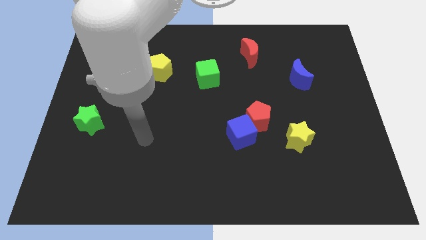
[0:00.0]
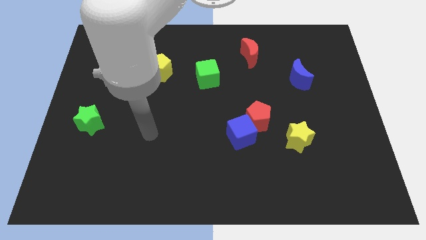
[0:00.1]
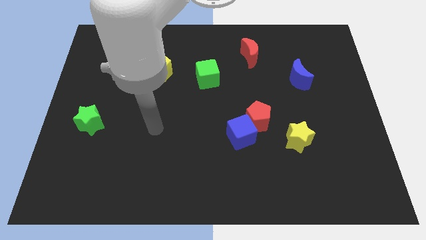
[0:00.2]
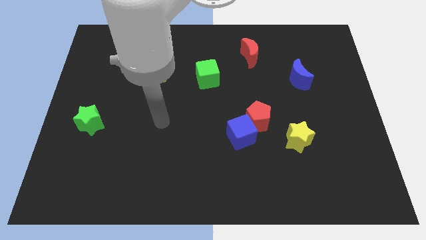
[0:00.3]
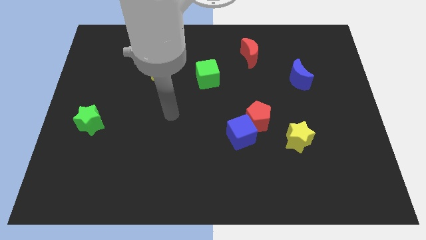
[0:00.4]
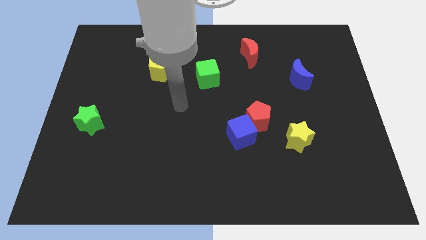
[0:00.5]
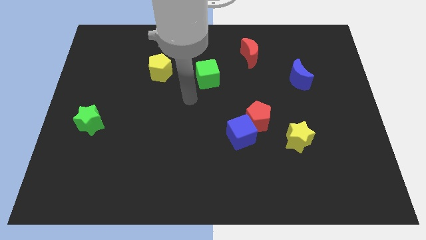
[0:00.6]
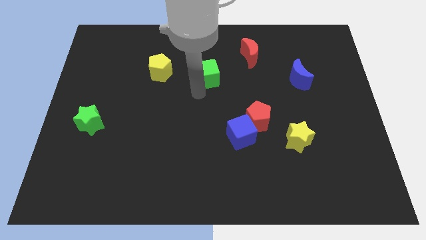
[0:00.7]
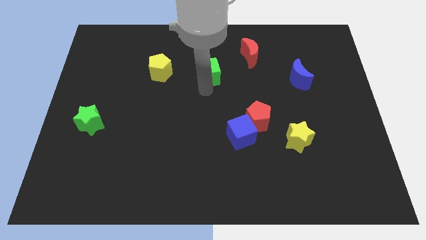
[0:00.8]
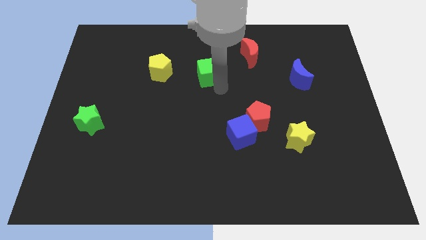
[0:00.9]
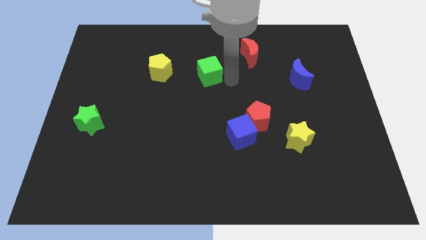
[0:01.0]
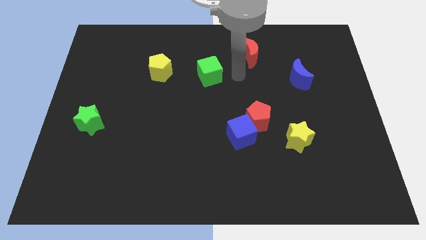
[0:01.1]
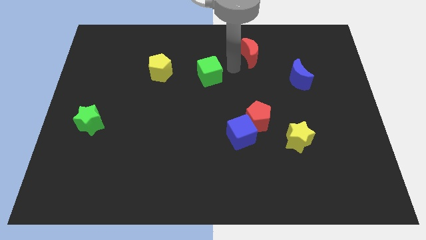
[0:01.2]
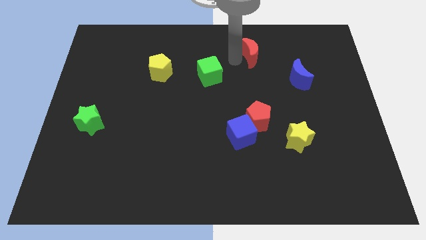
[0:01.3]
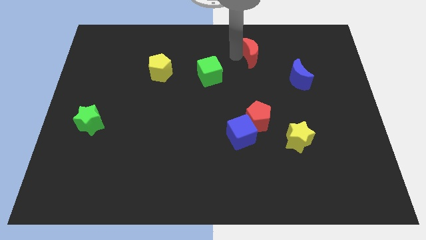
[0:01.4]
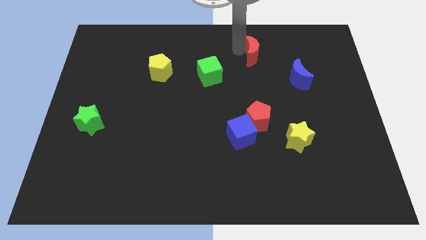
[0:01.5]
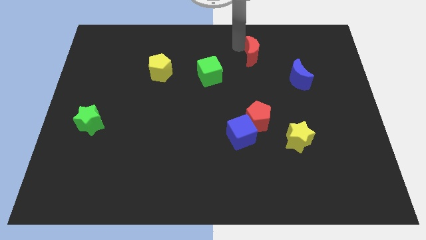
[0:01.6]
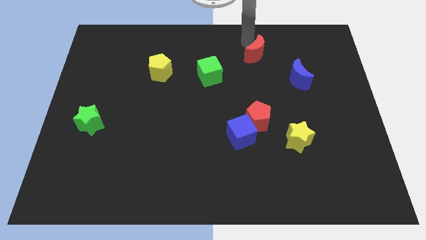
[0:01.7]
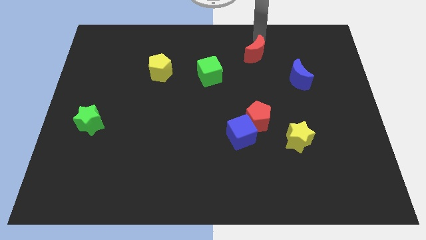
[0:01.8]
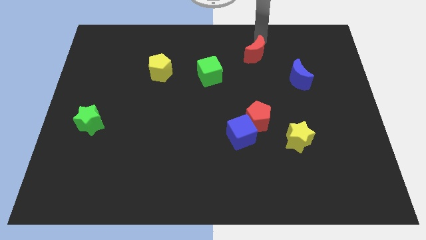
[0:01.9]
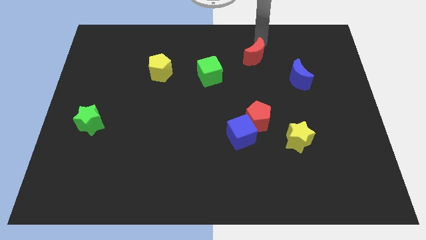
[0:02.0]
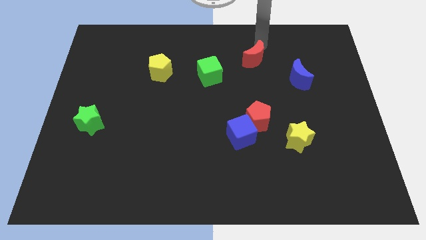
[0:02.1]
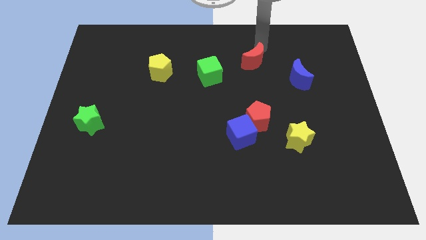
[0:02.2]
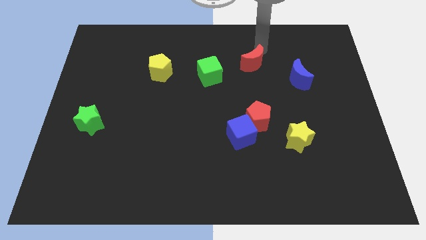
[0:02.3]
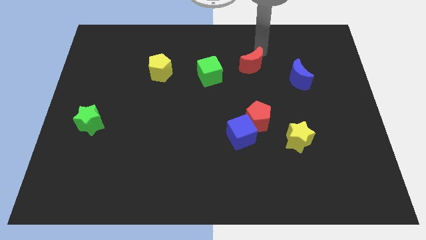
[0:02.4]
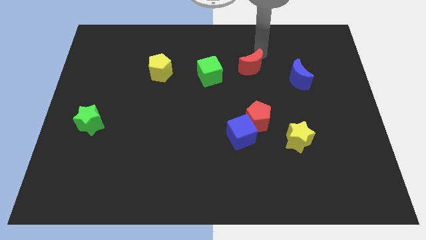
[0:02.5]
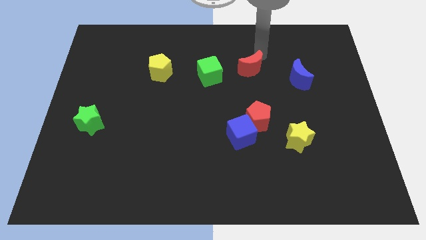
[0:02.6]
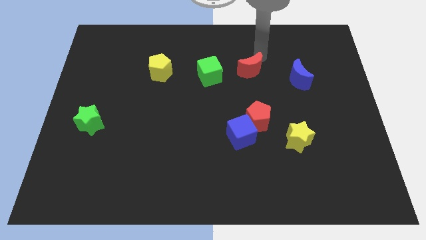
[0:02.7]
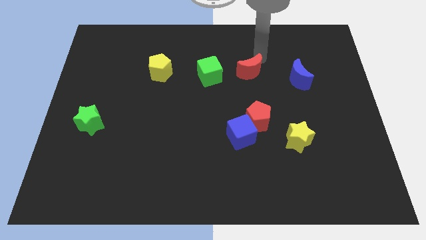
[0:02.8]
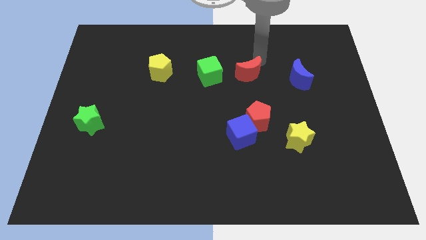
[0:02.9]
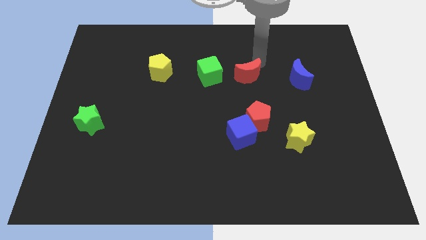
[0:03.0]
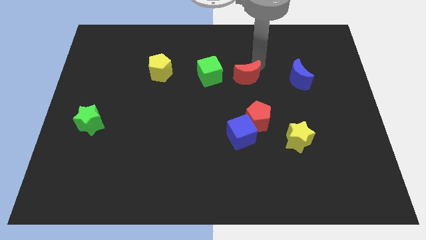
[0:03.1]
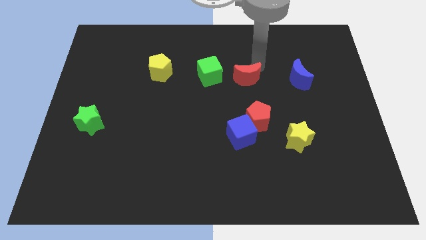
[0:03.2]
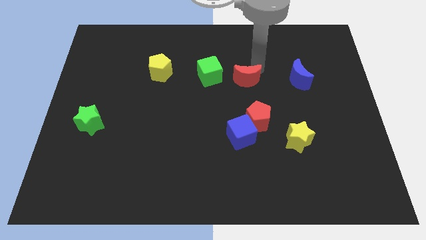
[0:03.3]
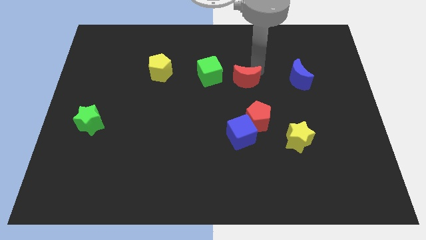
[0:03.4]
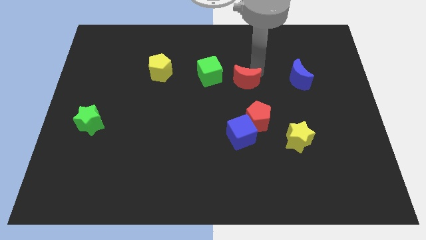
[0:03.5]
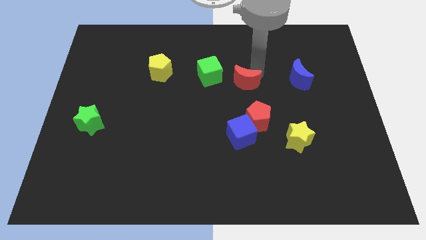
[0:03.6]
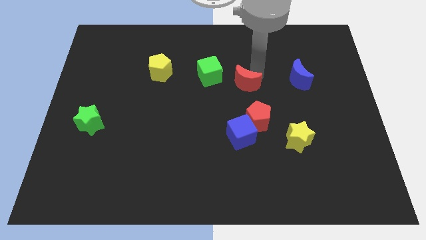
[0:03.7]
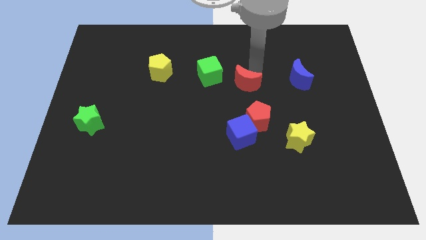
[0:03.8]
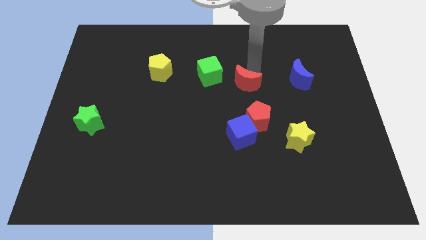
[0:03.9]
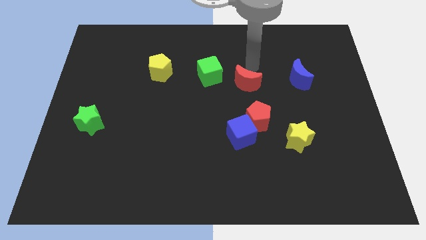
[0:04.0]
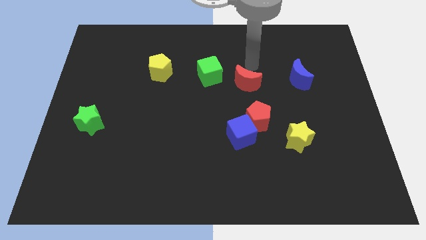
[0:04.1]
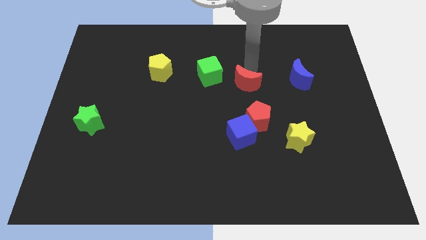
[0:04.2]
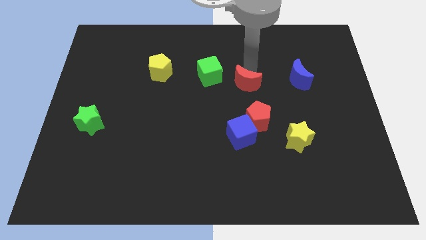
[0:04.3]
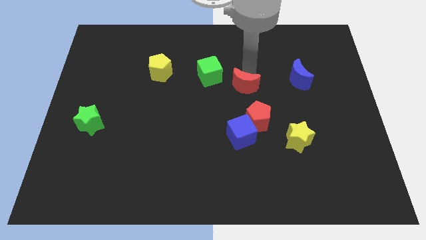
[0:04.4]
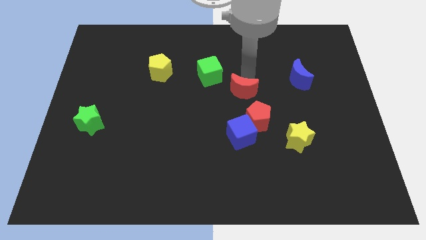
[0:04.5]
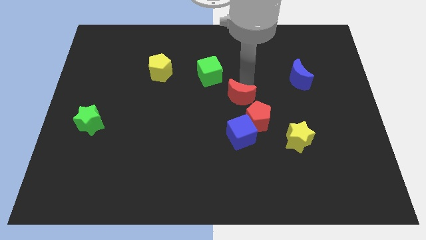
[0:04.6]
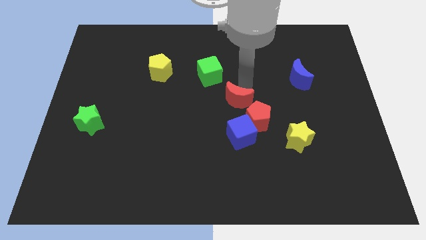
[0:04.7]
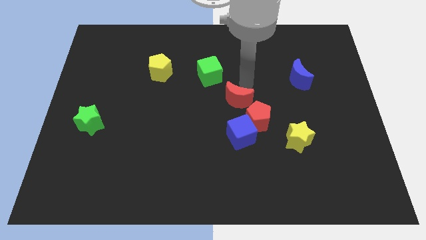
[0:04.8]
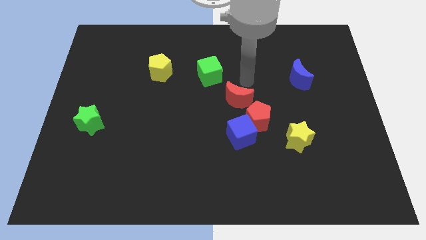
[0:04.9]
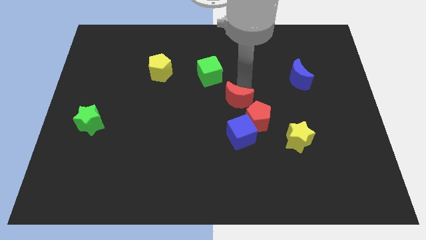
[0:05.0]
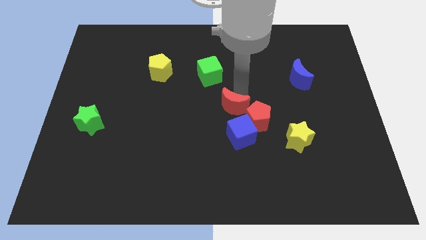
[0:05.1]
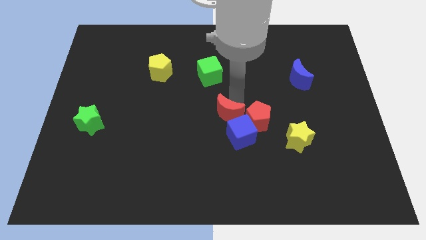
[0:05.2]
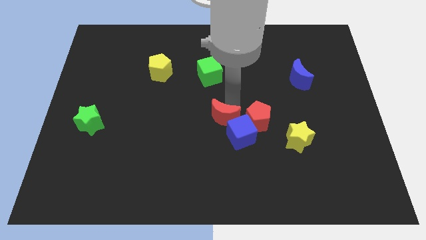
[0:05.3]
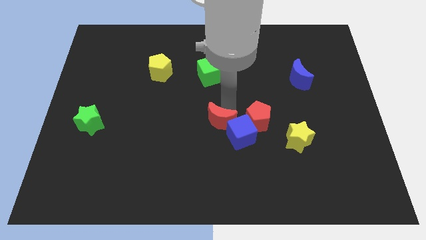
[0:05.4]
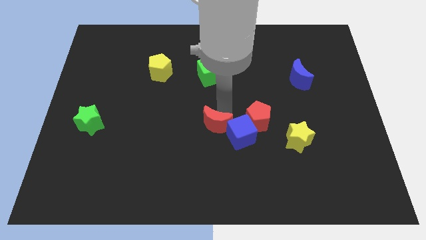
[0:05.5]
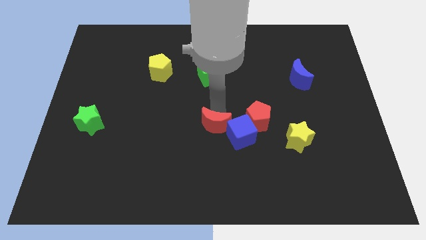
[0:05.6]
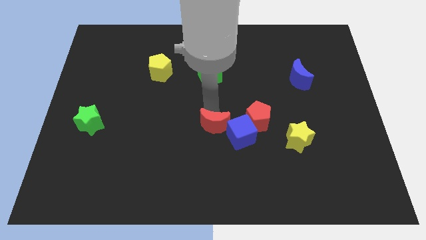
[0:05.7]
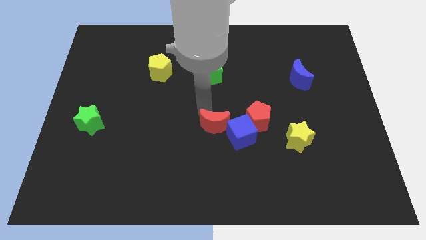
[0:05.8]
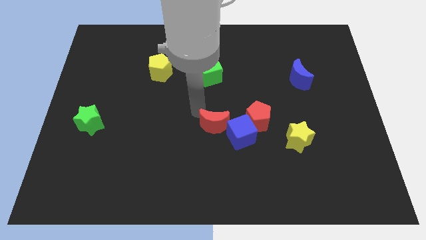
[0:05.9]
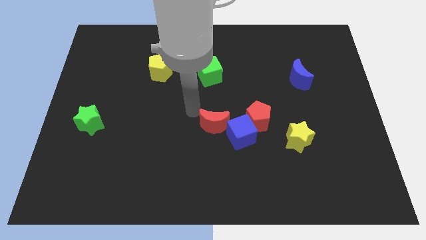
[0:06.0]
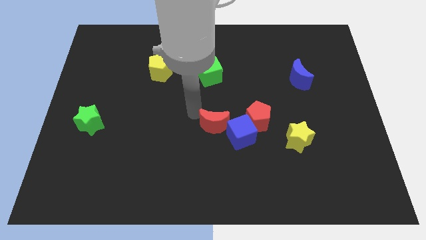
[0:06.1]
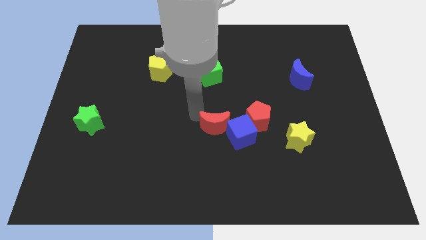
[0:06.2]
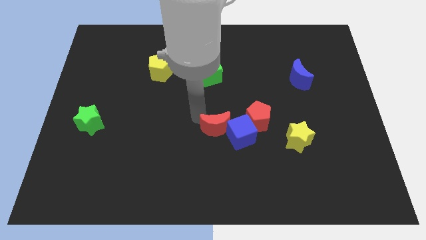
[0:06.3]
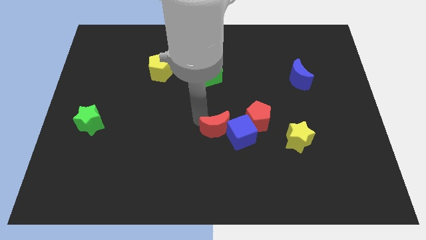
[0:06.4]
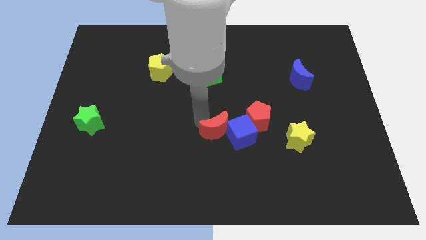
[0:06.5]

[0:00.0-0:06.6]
move the red moon to the bottom left of the red pentagon

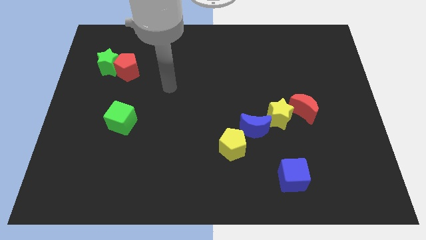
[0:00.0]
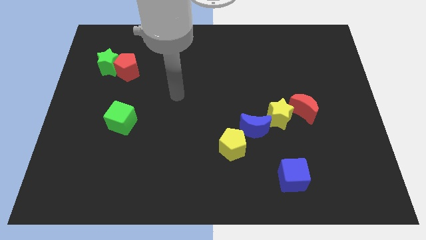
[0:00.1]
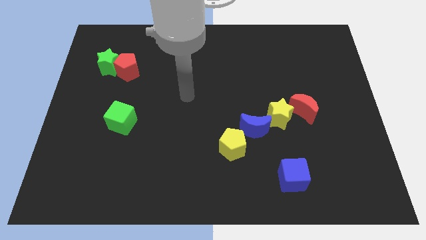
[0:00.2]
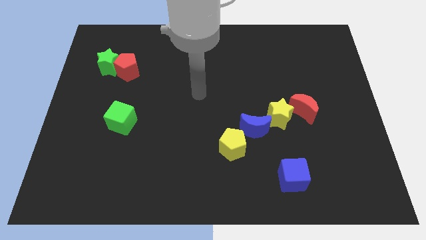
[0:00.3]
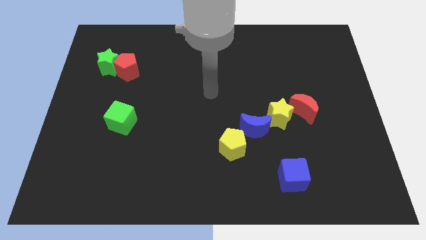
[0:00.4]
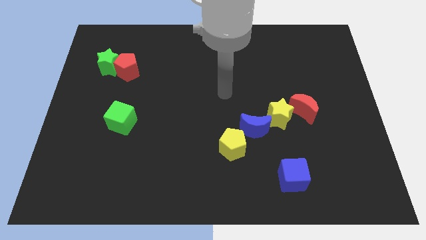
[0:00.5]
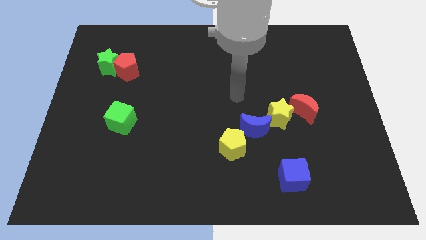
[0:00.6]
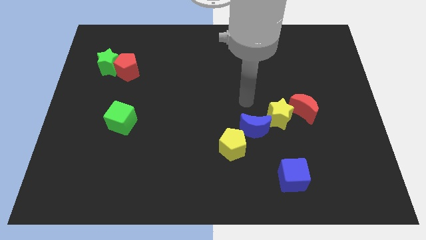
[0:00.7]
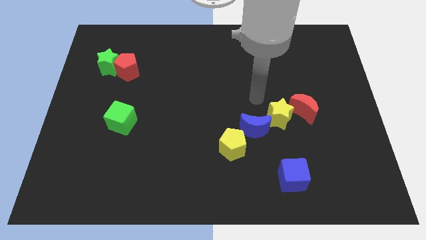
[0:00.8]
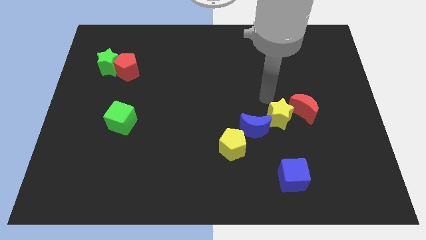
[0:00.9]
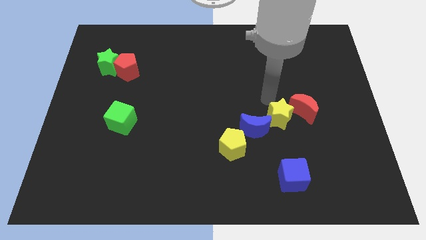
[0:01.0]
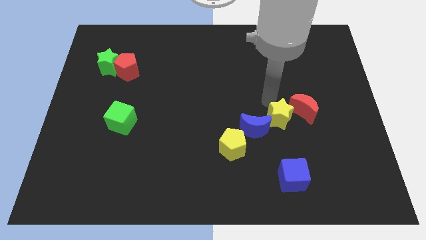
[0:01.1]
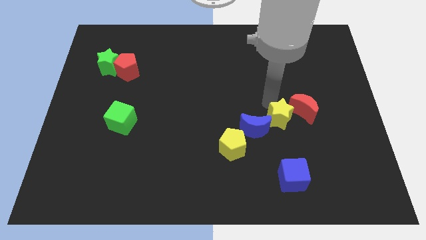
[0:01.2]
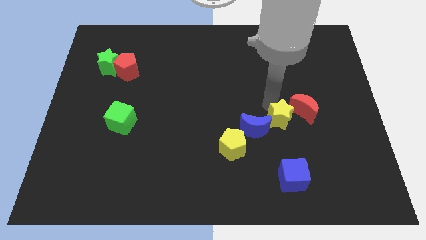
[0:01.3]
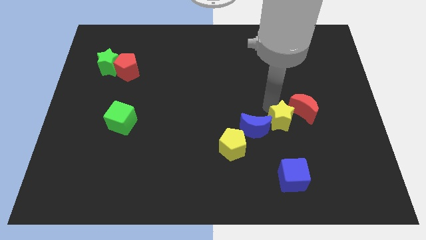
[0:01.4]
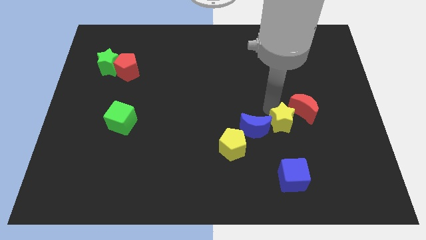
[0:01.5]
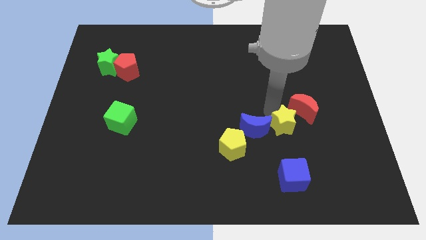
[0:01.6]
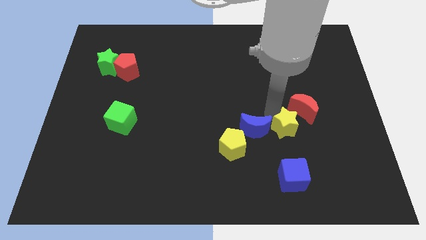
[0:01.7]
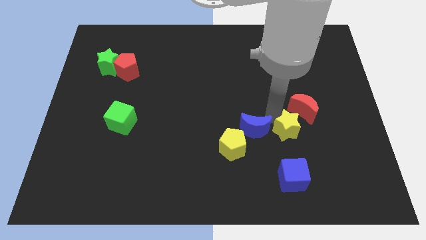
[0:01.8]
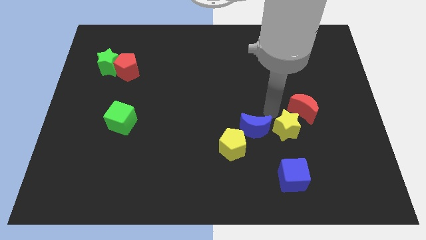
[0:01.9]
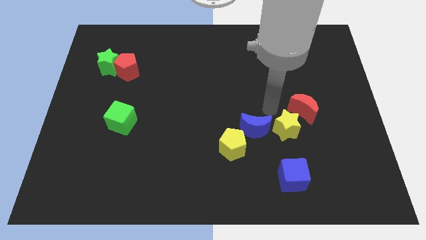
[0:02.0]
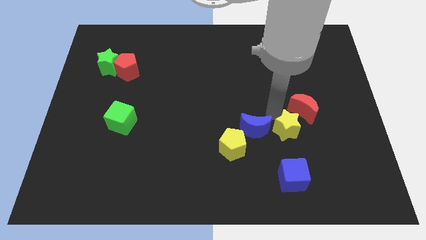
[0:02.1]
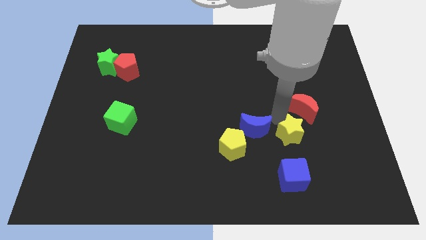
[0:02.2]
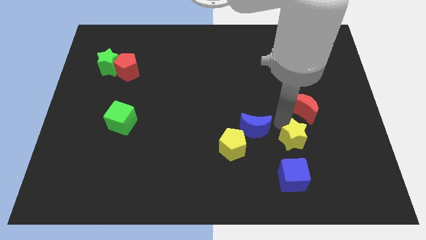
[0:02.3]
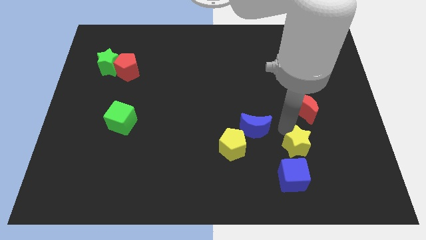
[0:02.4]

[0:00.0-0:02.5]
move the yellow star to the top right of the blue cube
